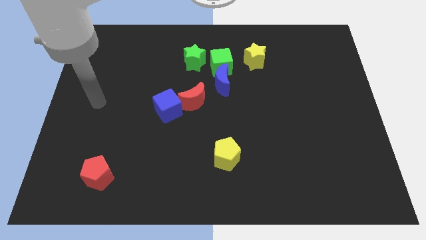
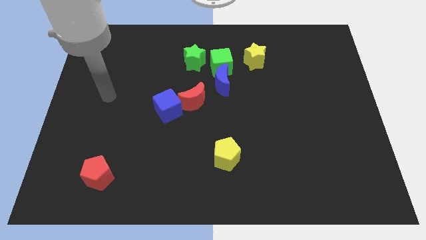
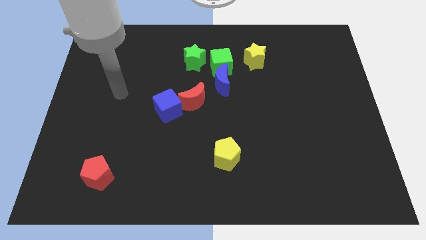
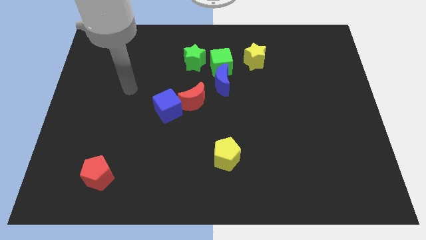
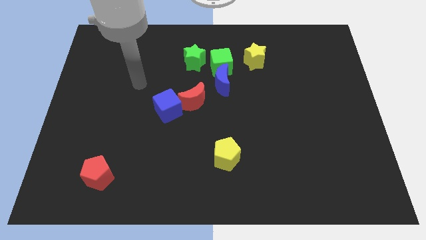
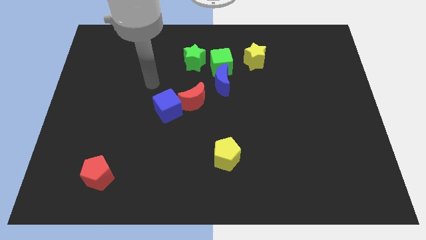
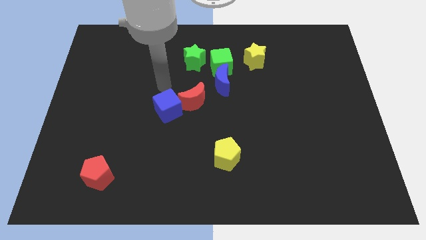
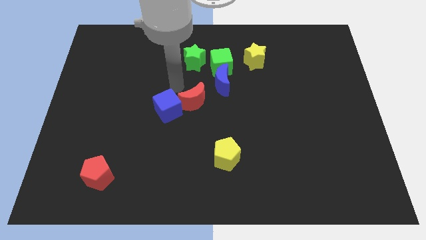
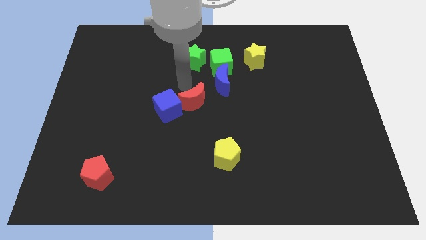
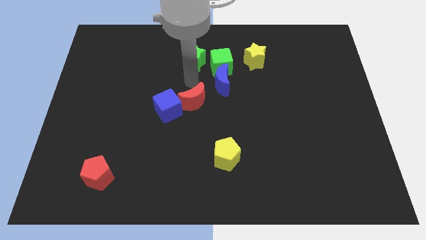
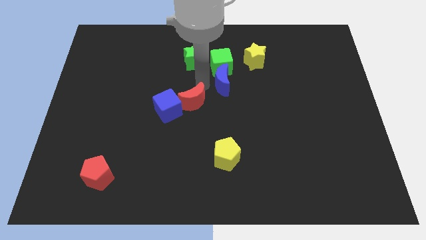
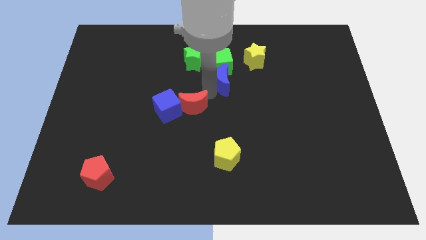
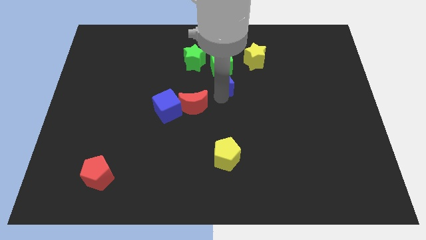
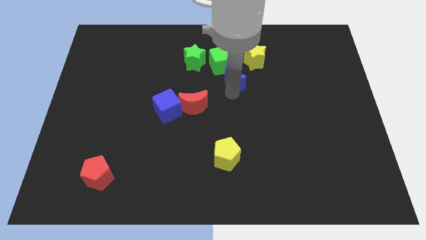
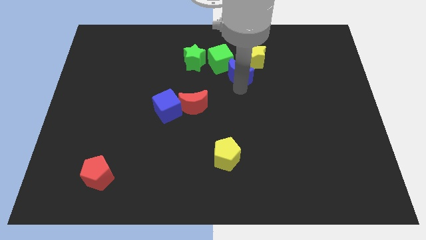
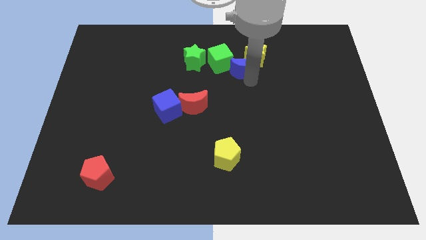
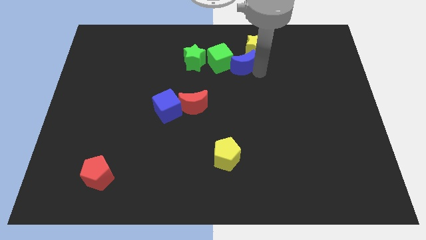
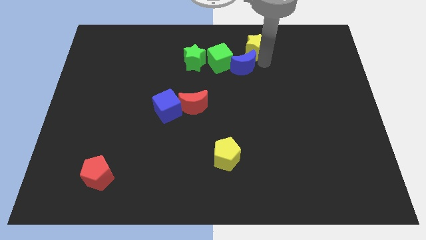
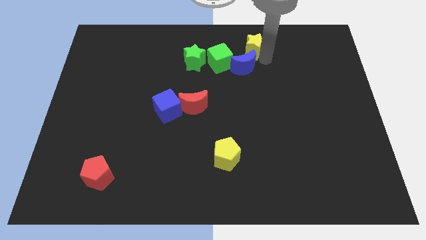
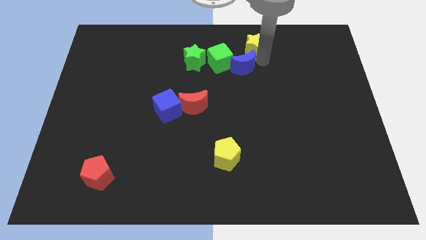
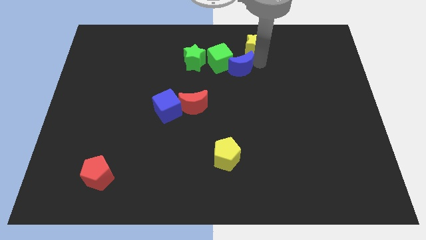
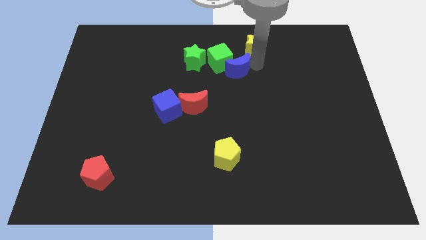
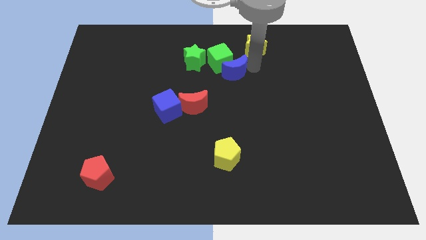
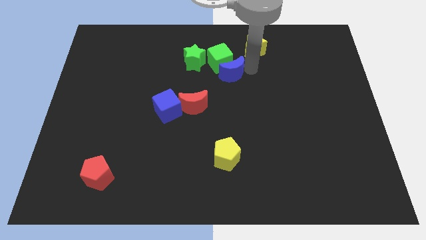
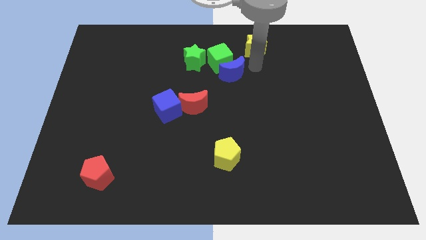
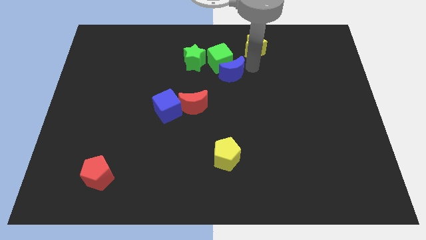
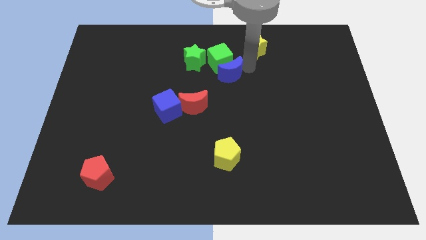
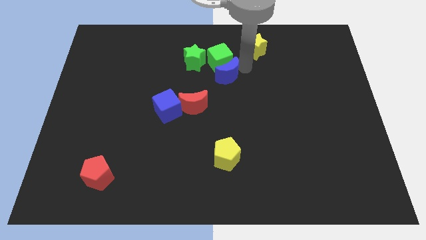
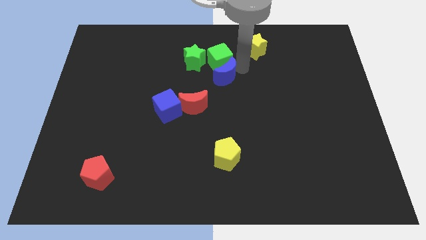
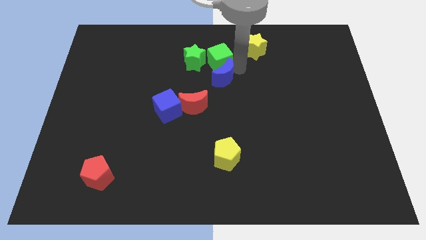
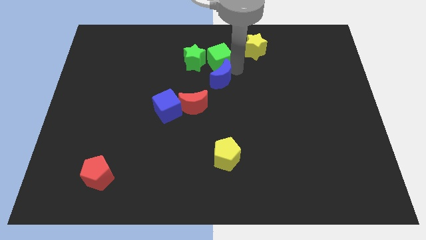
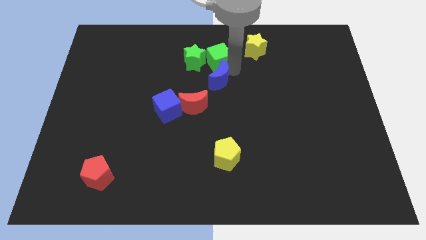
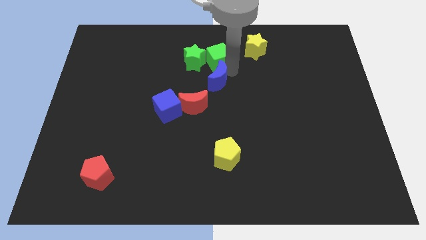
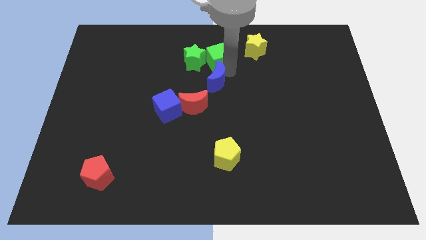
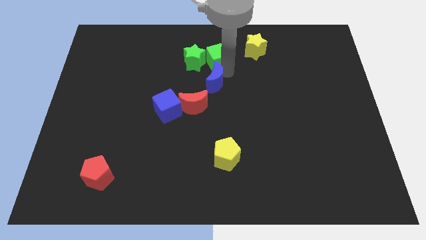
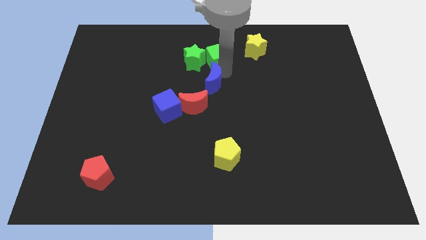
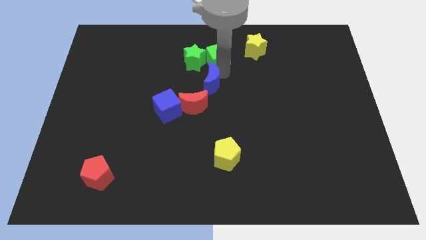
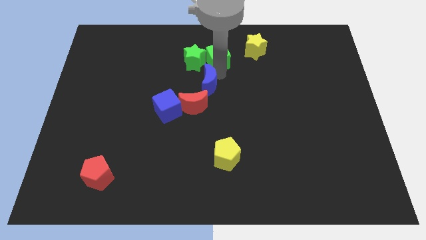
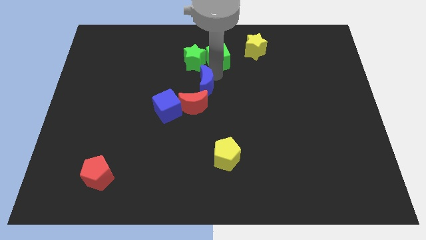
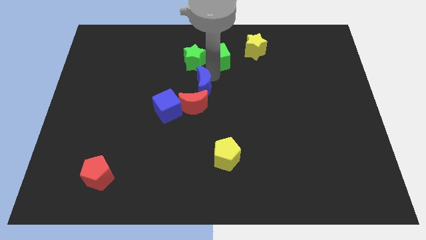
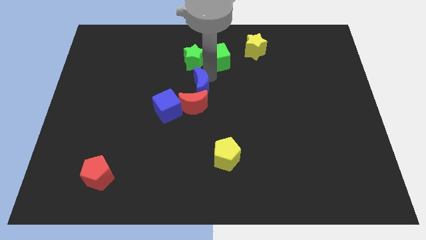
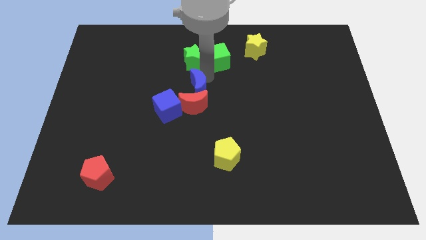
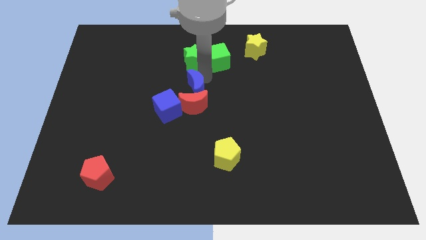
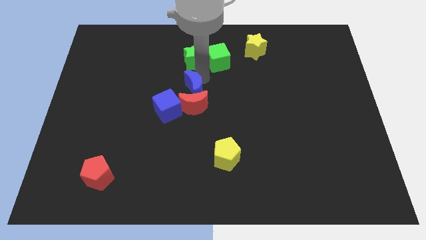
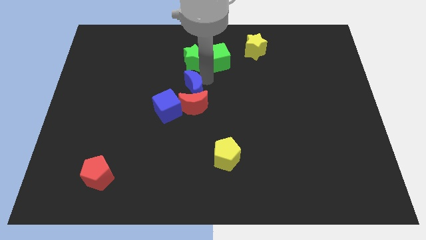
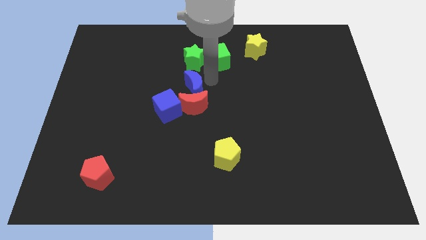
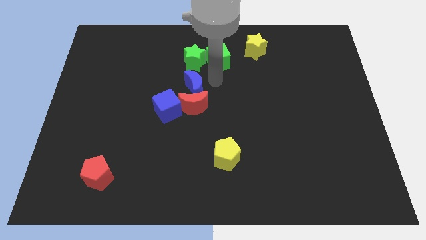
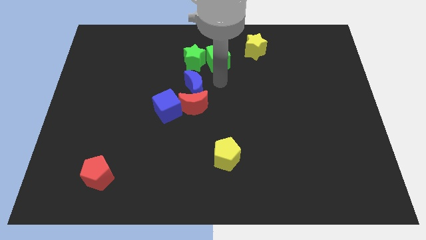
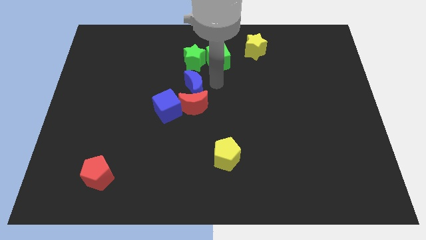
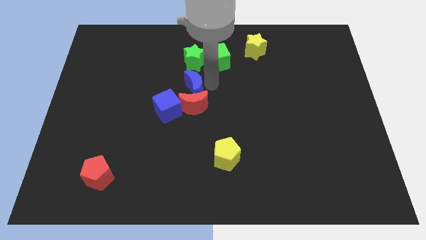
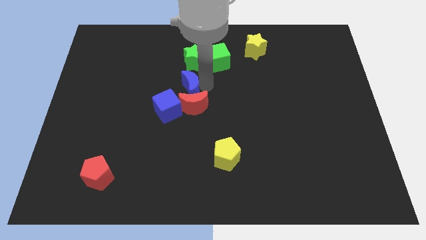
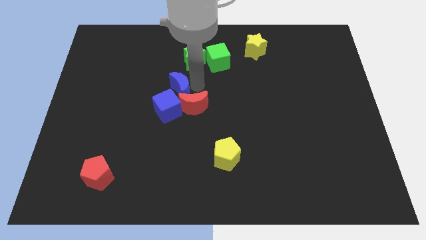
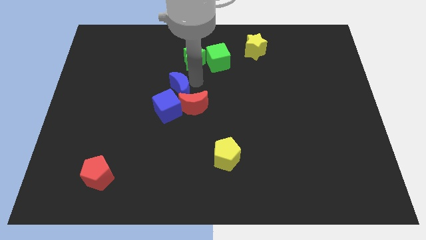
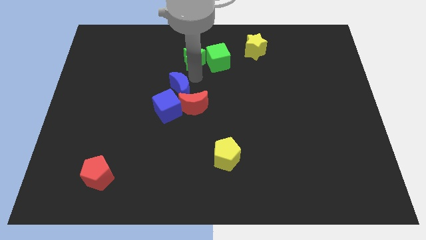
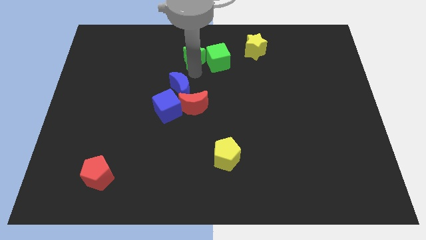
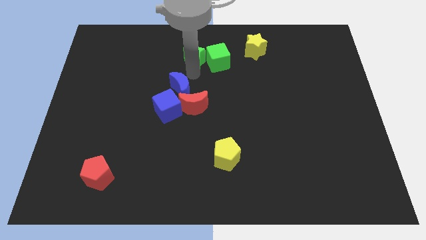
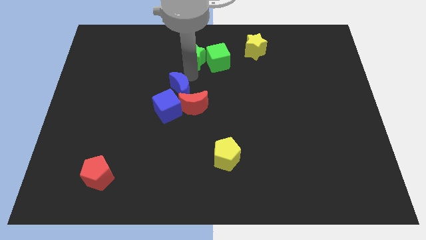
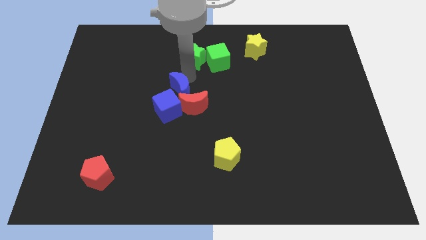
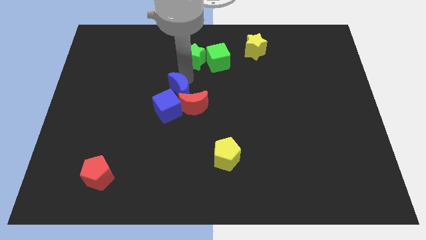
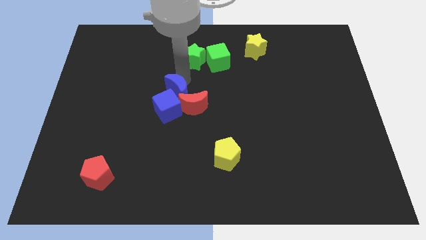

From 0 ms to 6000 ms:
slide the blue moon close to the blue cube

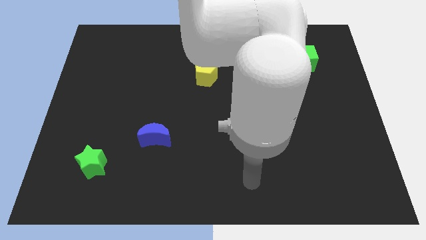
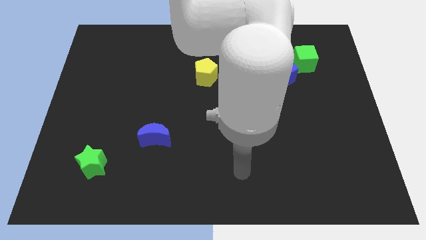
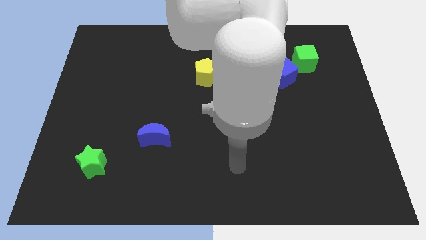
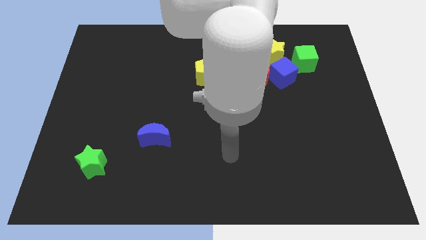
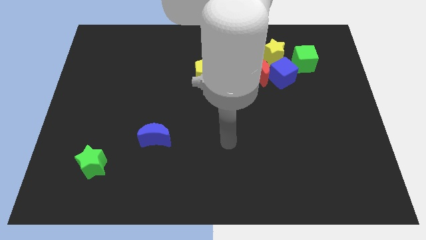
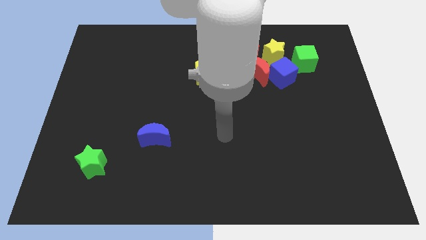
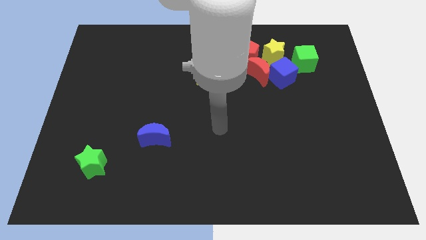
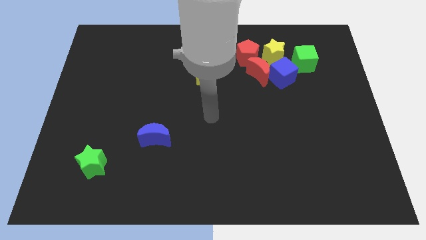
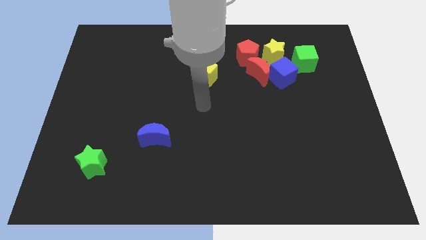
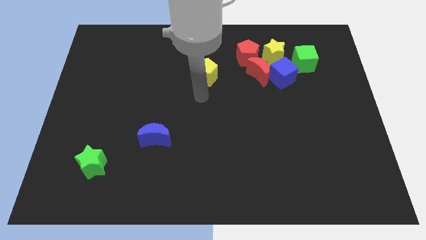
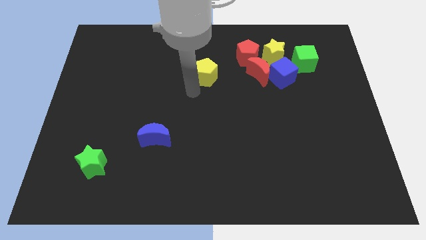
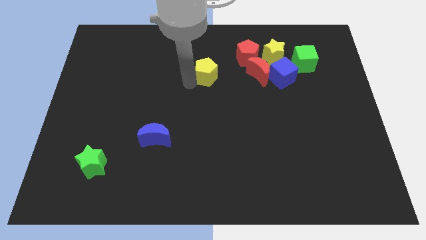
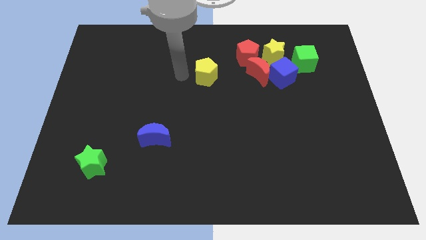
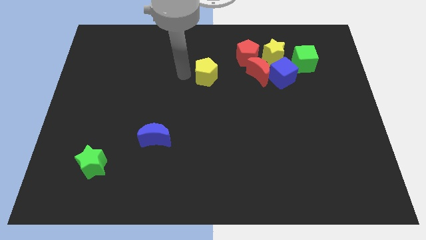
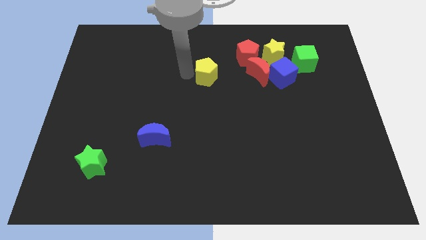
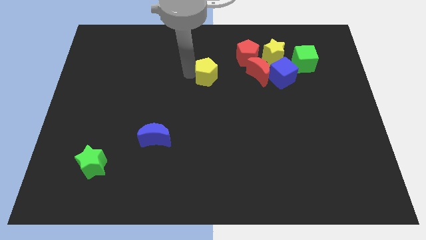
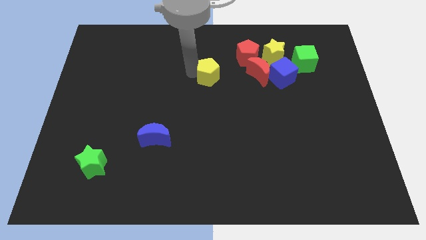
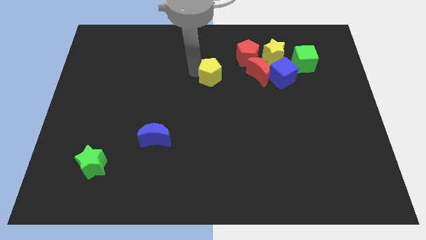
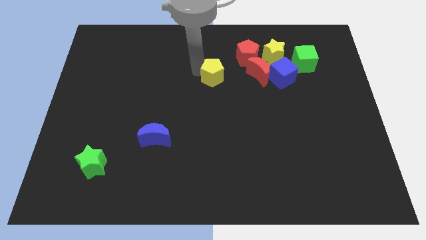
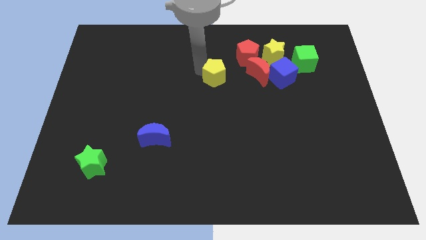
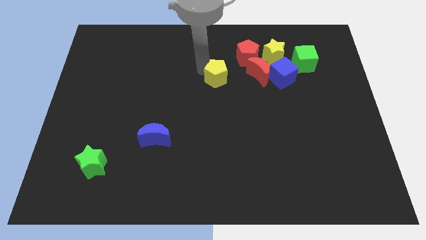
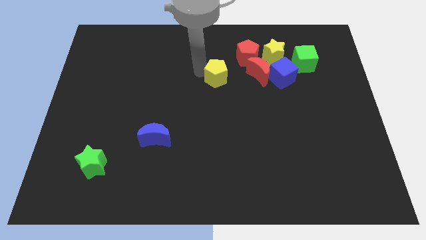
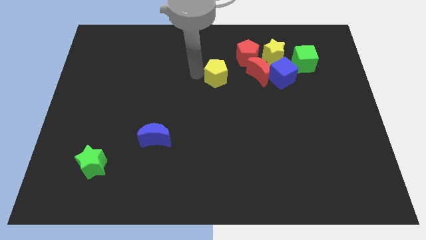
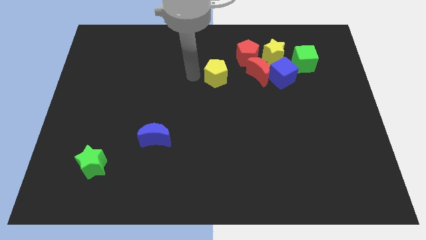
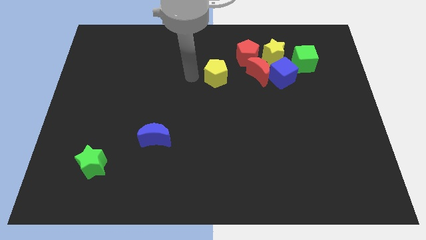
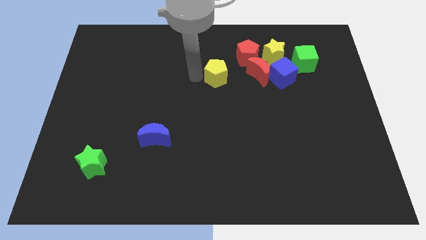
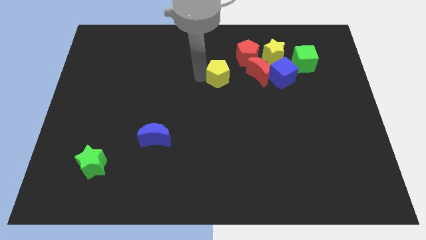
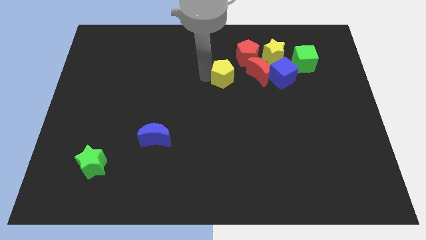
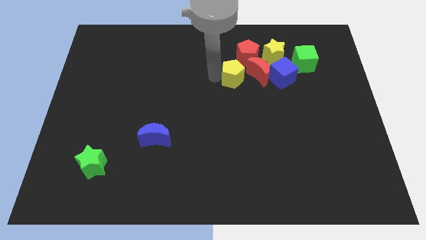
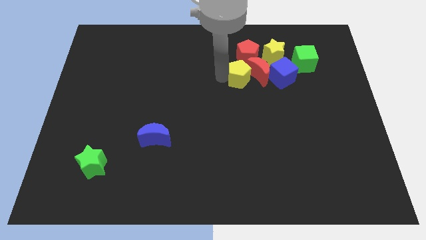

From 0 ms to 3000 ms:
slide the yellow pentagon close to the red moon
